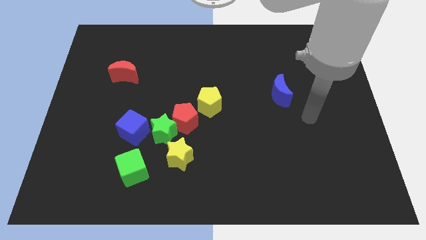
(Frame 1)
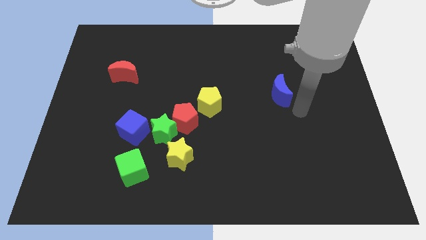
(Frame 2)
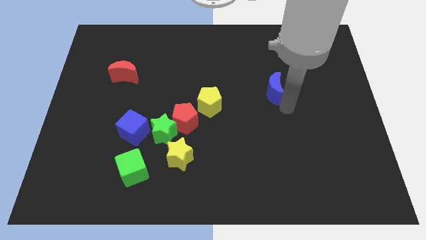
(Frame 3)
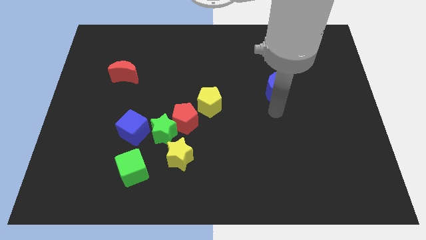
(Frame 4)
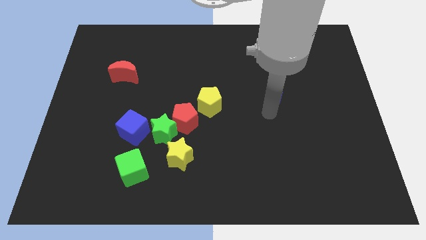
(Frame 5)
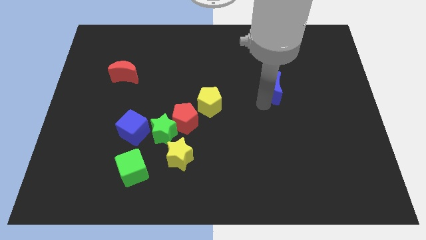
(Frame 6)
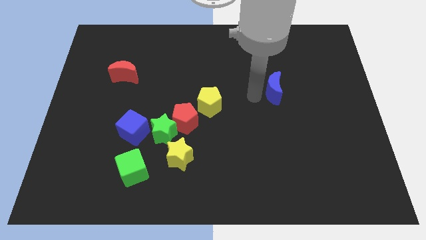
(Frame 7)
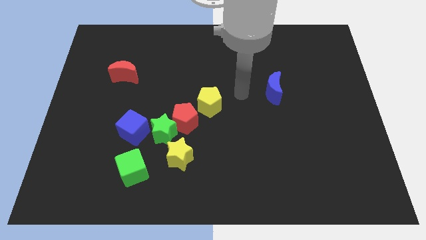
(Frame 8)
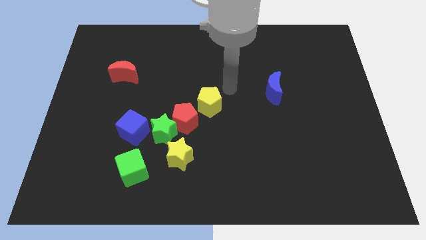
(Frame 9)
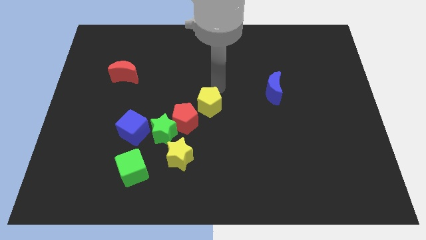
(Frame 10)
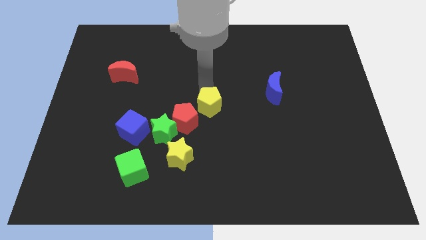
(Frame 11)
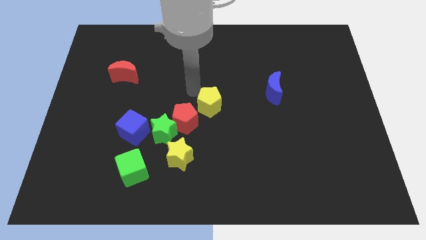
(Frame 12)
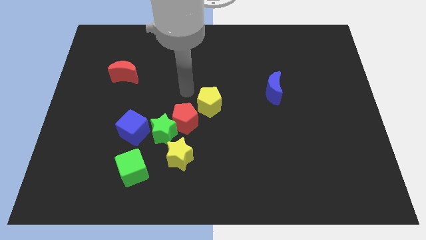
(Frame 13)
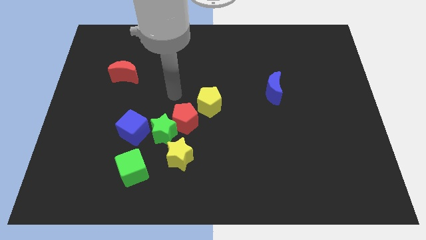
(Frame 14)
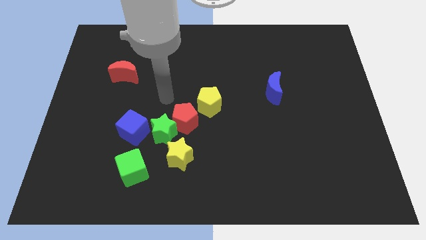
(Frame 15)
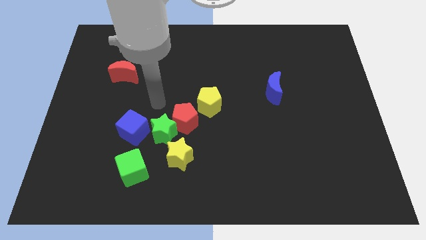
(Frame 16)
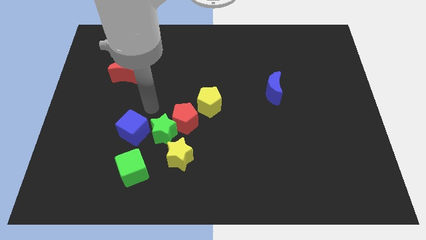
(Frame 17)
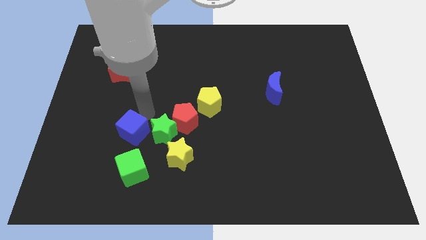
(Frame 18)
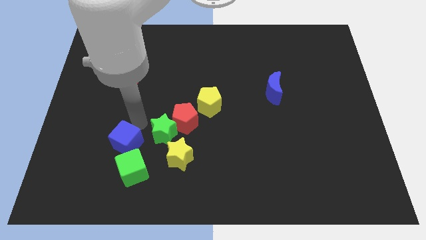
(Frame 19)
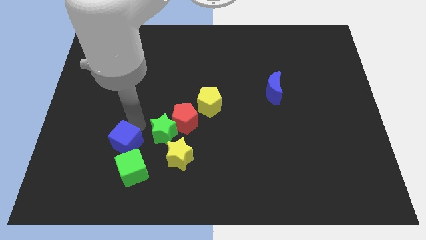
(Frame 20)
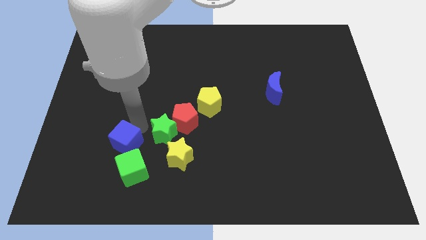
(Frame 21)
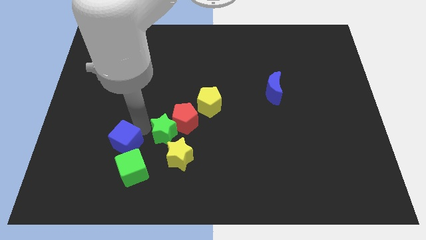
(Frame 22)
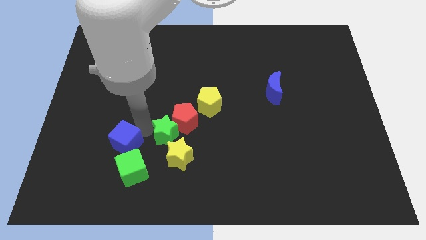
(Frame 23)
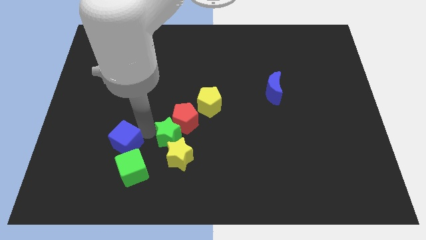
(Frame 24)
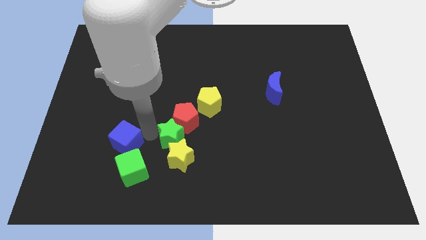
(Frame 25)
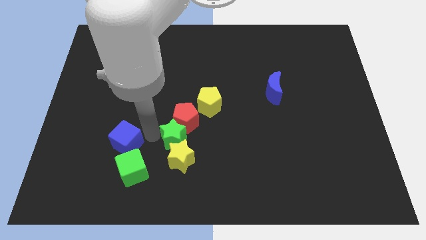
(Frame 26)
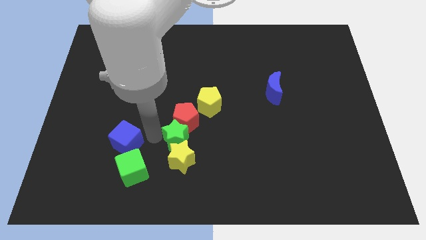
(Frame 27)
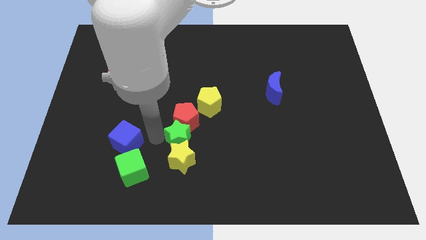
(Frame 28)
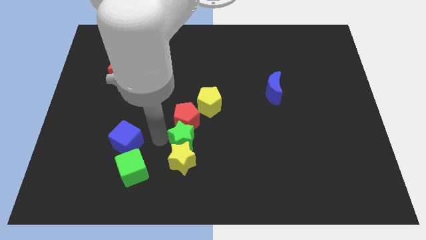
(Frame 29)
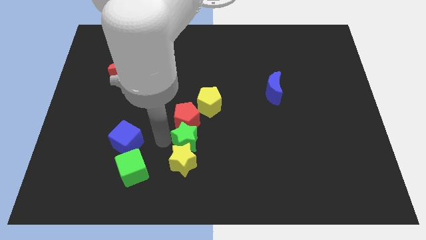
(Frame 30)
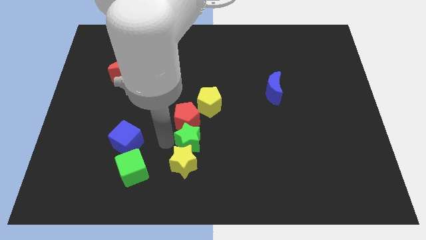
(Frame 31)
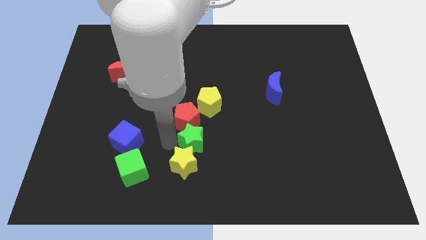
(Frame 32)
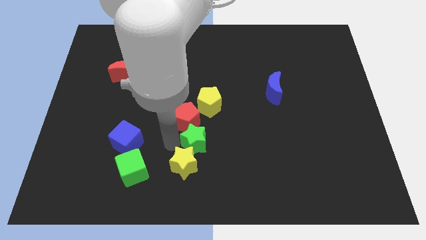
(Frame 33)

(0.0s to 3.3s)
slightly slide the green star right

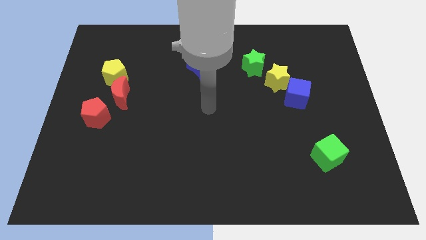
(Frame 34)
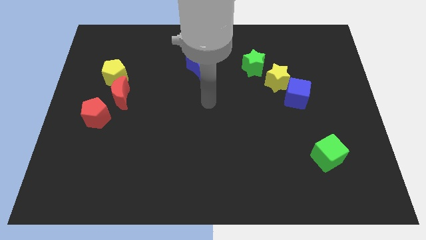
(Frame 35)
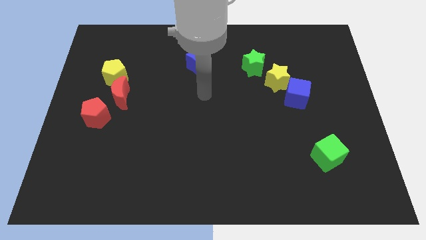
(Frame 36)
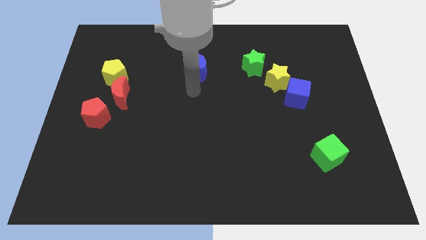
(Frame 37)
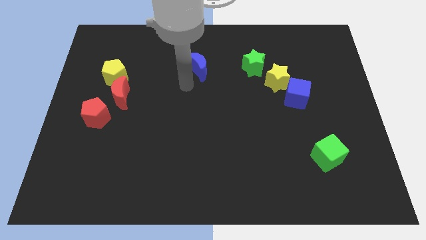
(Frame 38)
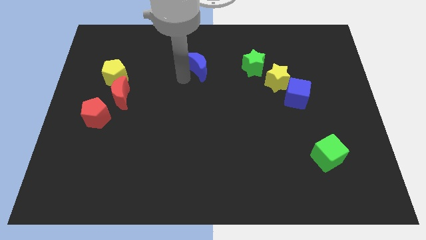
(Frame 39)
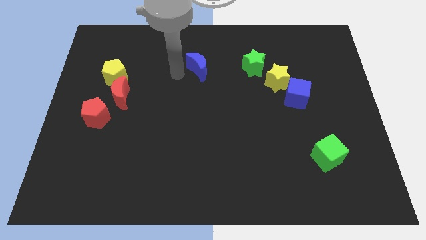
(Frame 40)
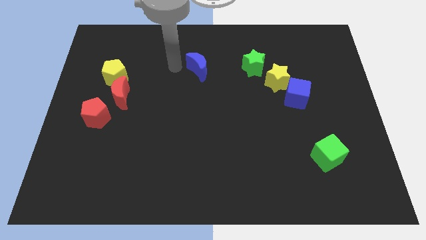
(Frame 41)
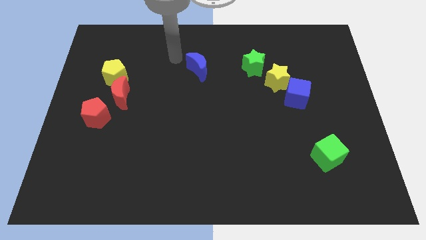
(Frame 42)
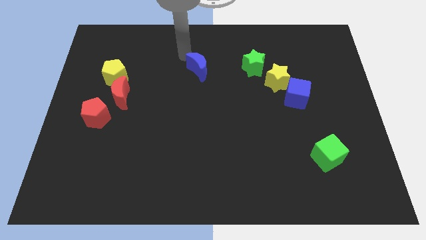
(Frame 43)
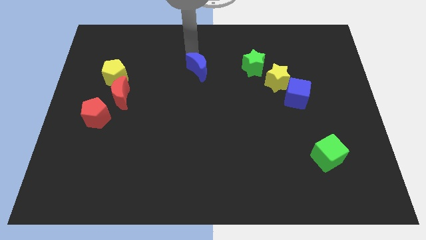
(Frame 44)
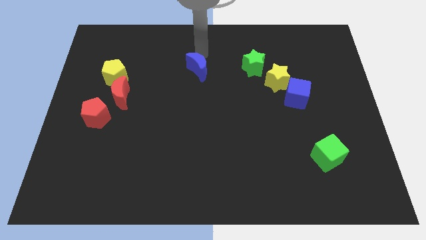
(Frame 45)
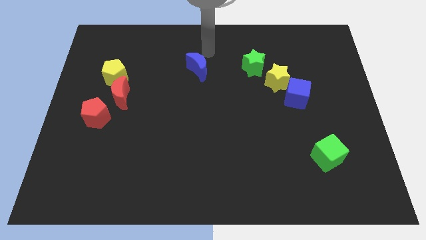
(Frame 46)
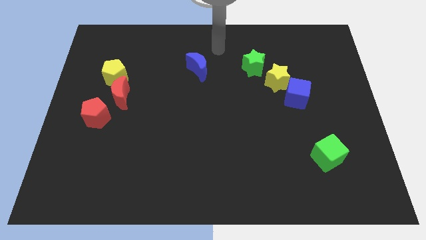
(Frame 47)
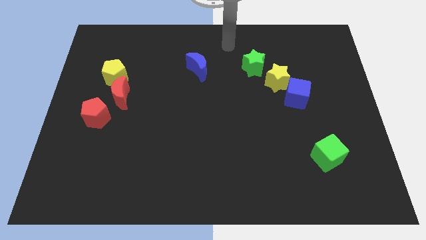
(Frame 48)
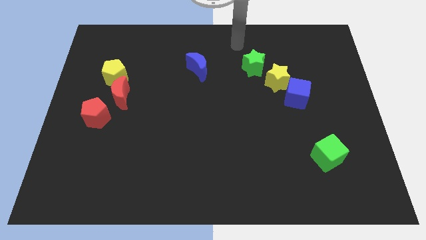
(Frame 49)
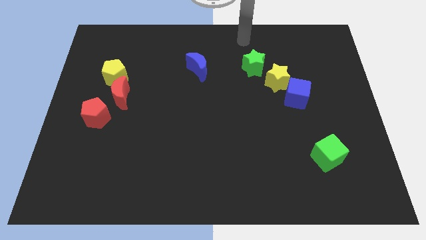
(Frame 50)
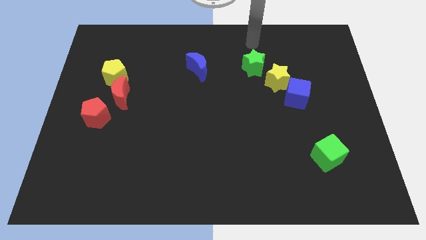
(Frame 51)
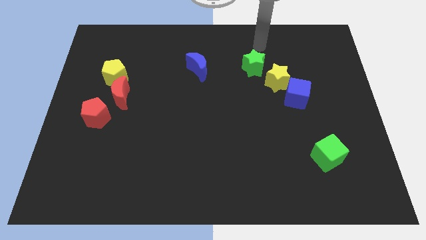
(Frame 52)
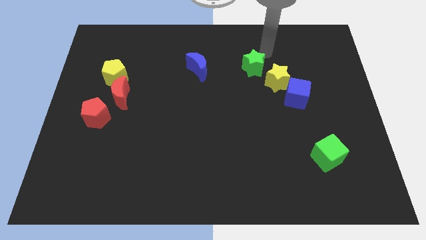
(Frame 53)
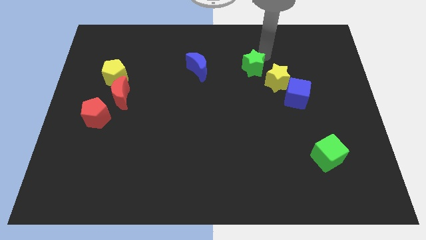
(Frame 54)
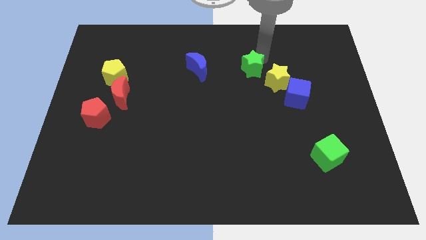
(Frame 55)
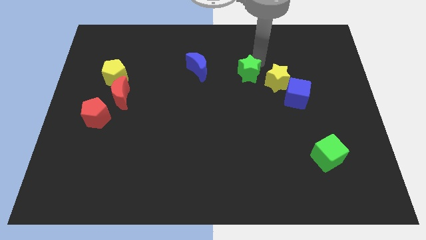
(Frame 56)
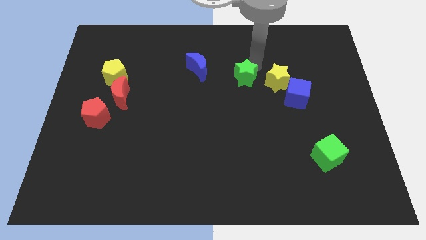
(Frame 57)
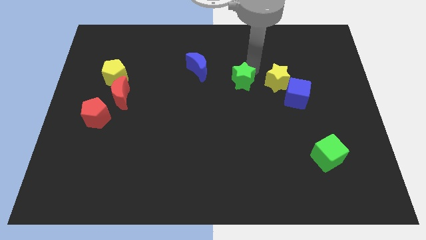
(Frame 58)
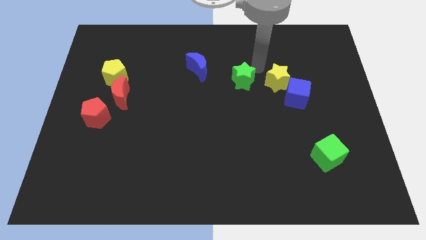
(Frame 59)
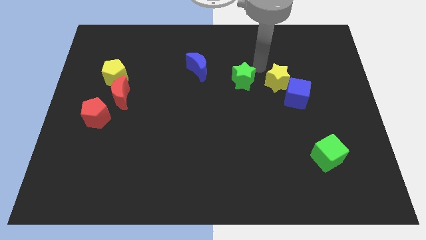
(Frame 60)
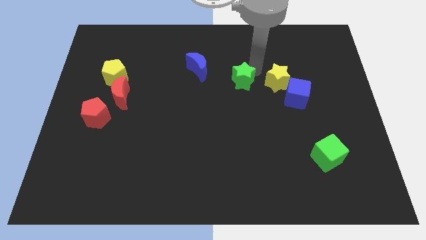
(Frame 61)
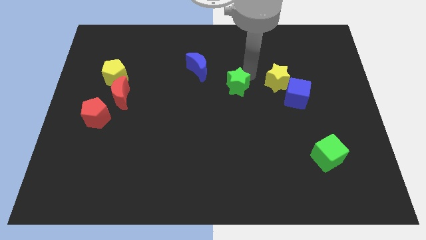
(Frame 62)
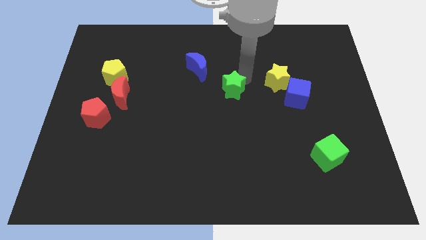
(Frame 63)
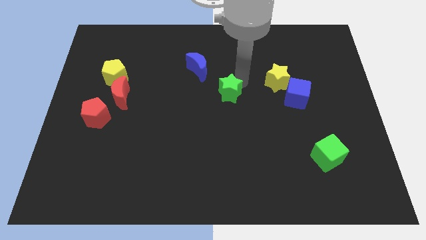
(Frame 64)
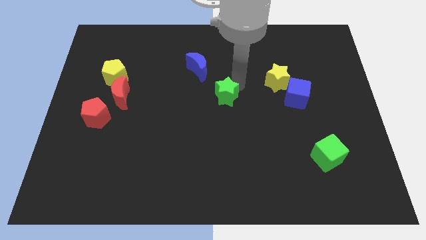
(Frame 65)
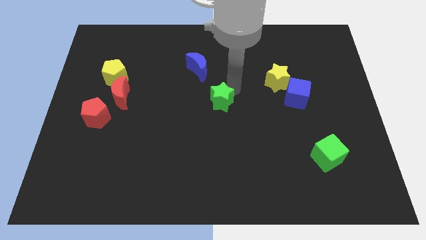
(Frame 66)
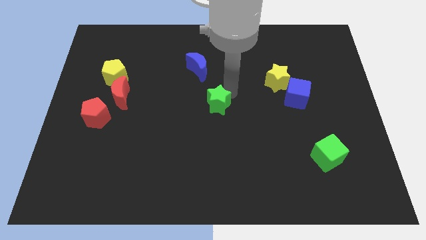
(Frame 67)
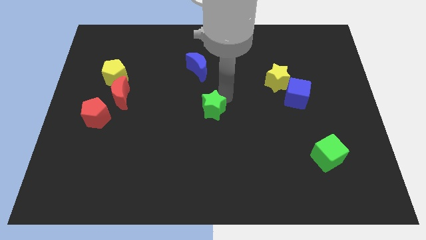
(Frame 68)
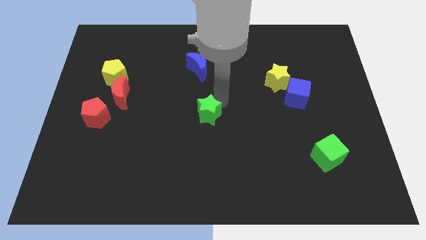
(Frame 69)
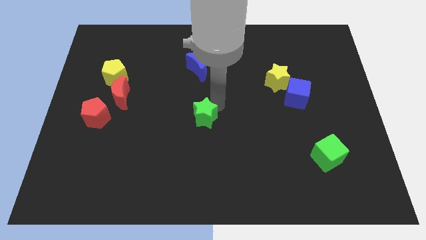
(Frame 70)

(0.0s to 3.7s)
slide the green star down and left diagonally

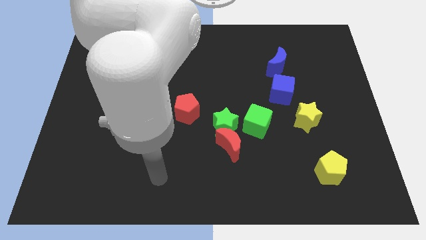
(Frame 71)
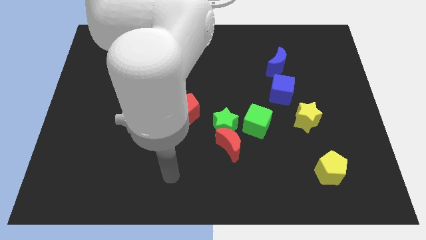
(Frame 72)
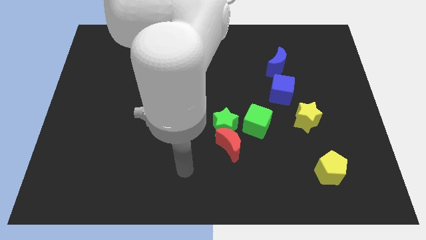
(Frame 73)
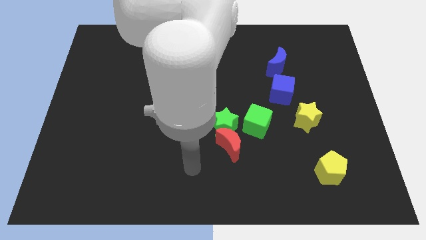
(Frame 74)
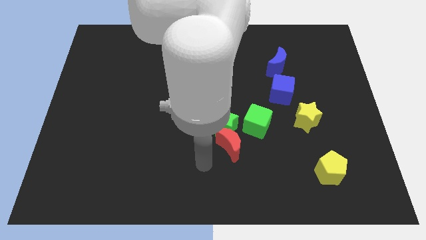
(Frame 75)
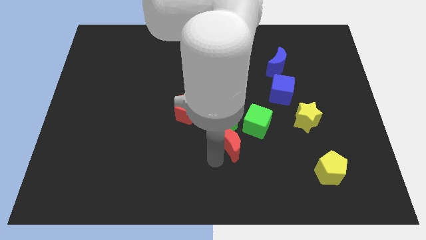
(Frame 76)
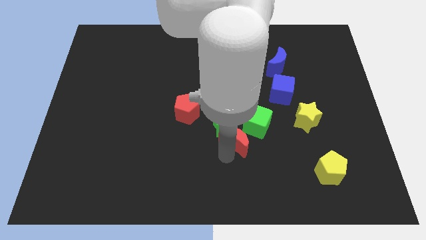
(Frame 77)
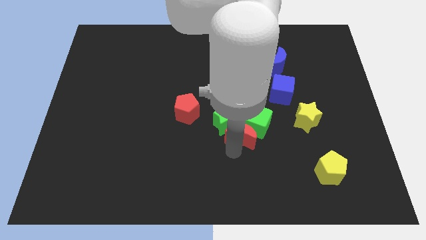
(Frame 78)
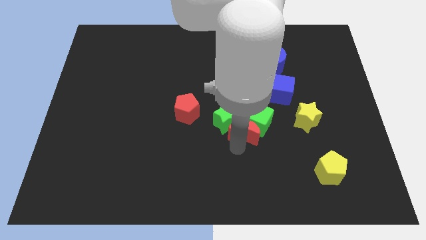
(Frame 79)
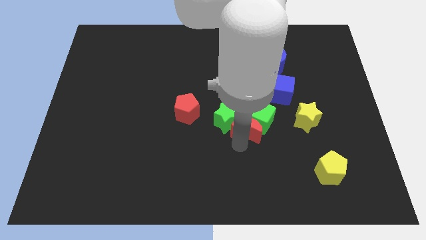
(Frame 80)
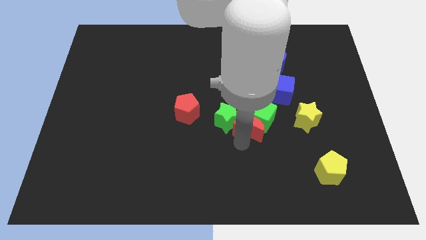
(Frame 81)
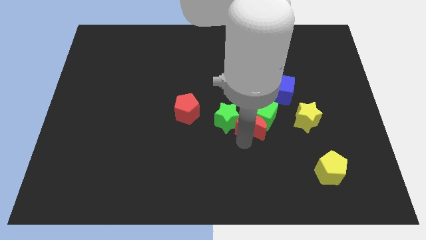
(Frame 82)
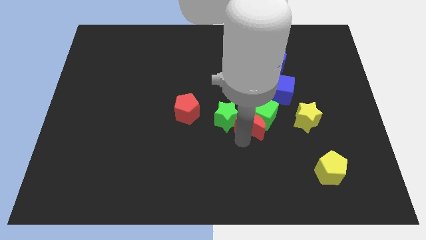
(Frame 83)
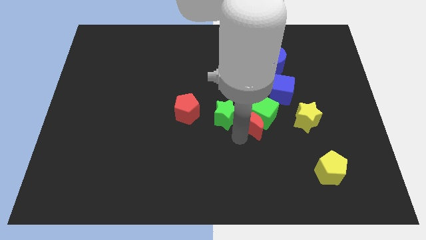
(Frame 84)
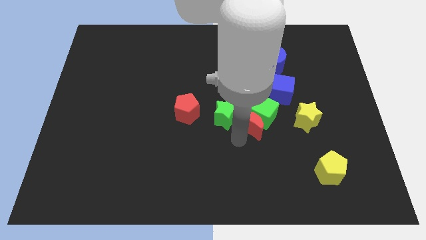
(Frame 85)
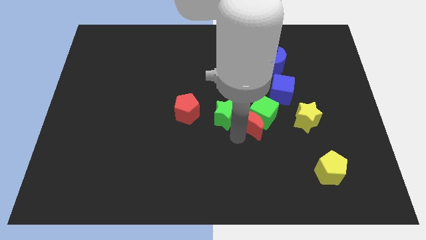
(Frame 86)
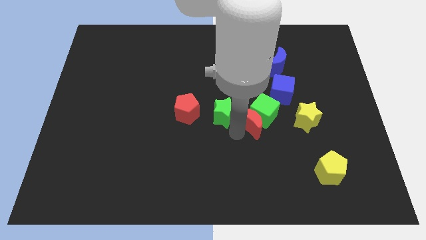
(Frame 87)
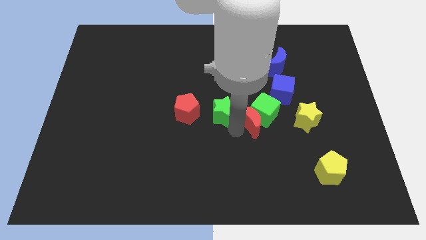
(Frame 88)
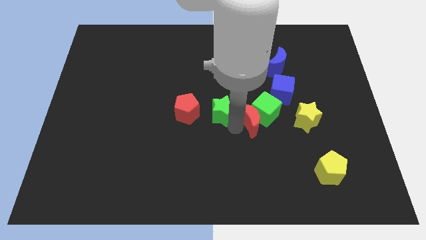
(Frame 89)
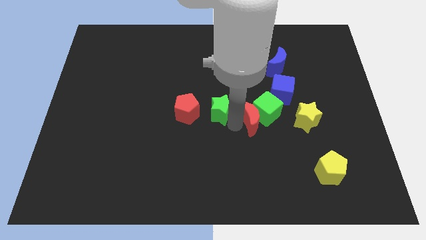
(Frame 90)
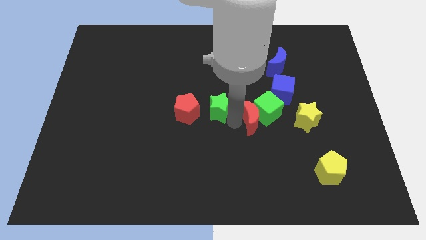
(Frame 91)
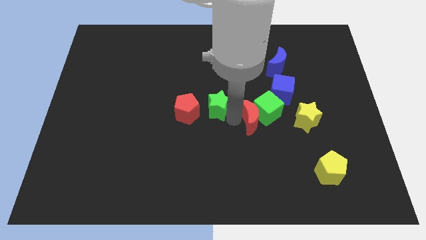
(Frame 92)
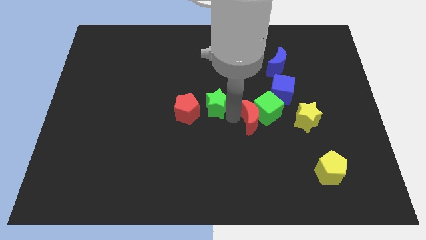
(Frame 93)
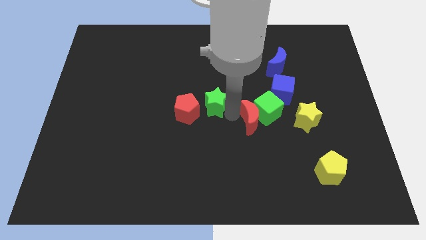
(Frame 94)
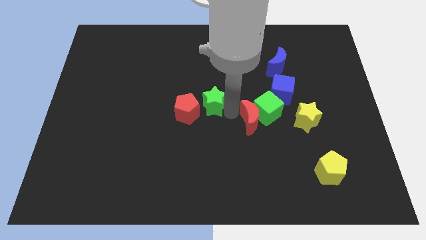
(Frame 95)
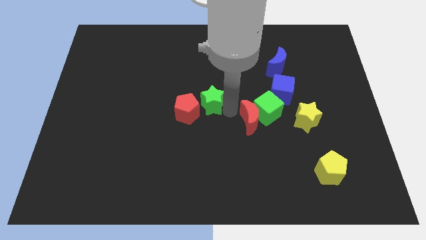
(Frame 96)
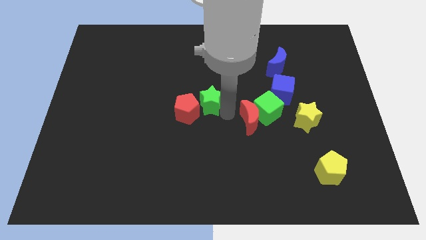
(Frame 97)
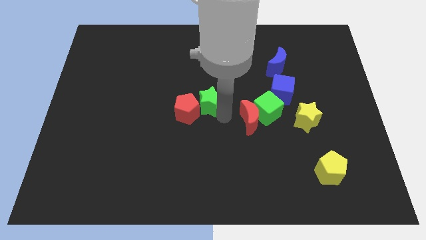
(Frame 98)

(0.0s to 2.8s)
slide the green star somewhat upwards and left
